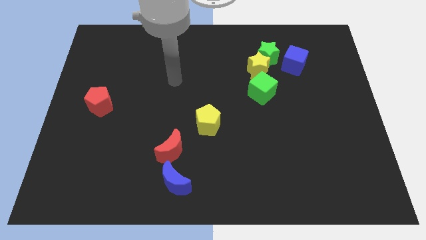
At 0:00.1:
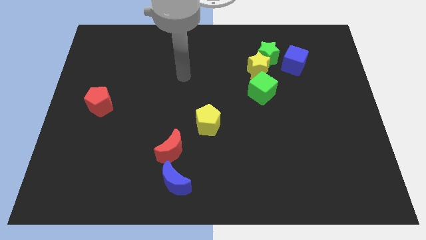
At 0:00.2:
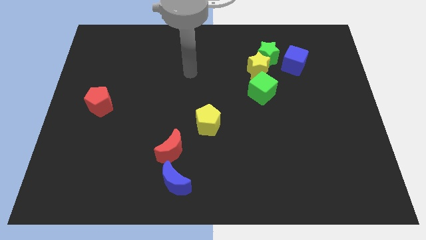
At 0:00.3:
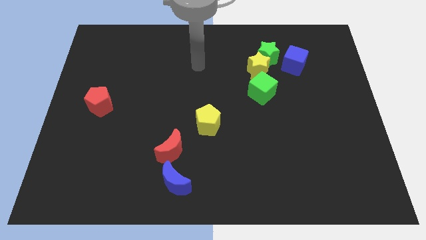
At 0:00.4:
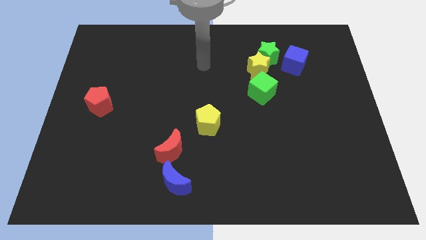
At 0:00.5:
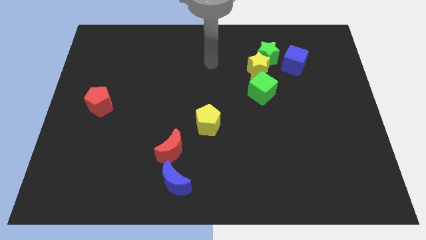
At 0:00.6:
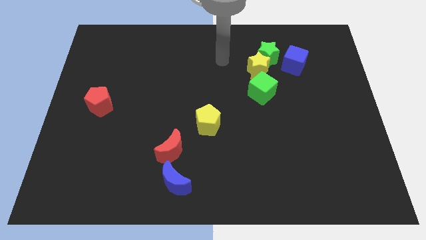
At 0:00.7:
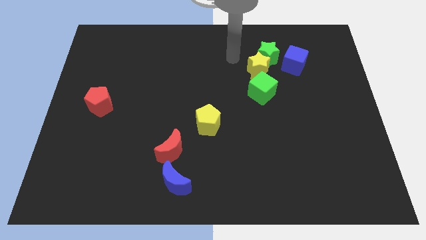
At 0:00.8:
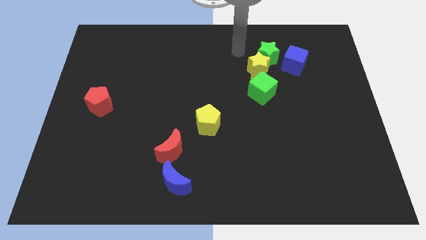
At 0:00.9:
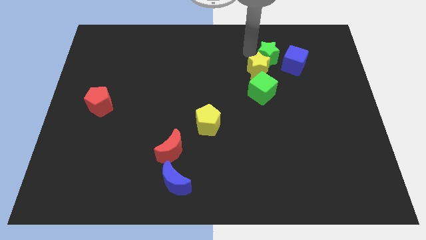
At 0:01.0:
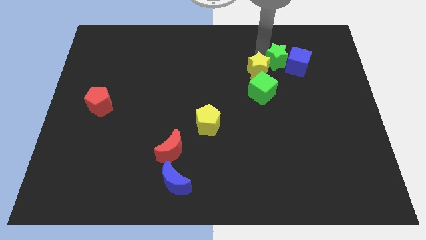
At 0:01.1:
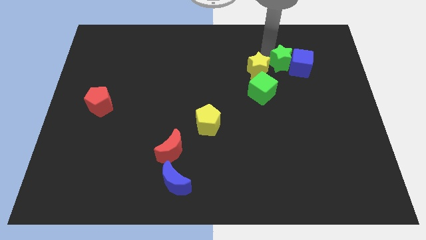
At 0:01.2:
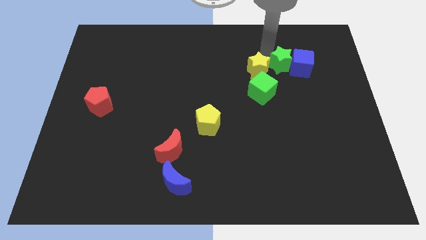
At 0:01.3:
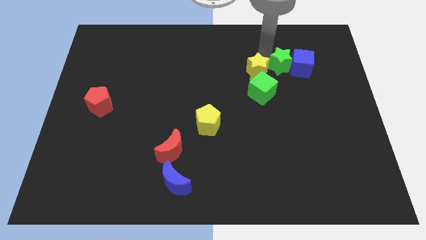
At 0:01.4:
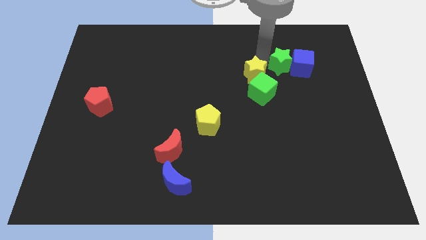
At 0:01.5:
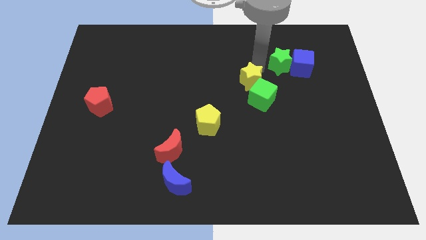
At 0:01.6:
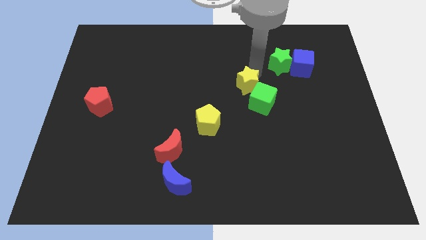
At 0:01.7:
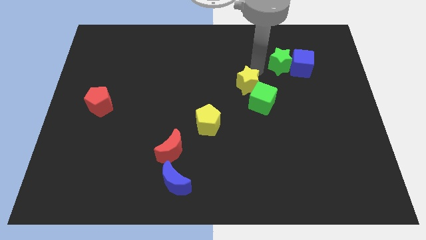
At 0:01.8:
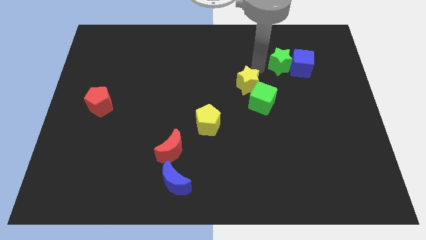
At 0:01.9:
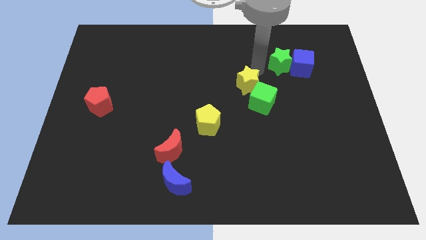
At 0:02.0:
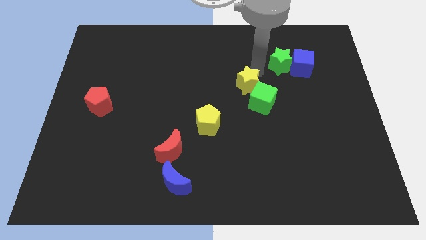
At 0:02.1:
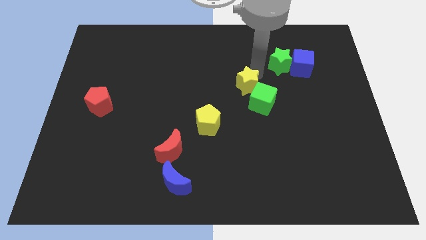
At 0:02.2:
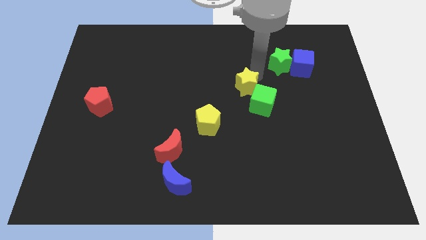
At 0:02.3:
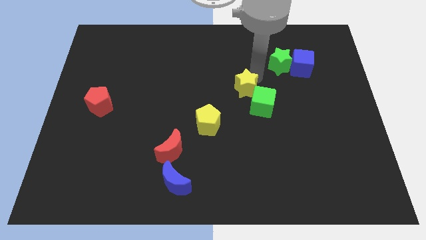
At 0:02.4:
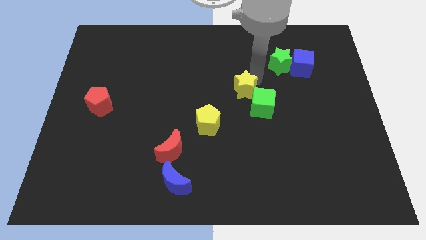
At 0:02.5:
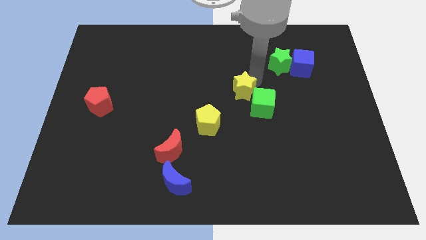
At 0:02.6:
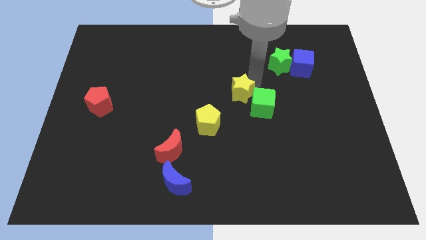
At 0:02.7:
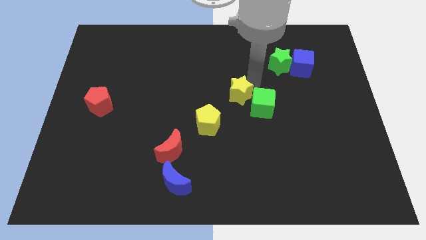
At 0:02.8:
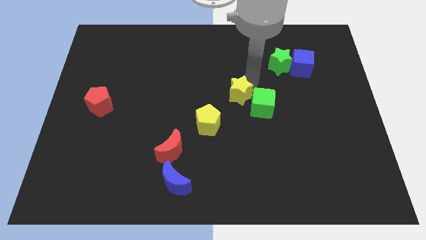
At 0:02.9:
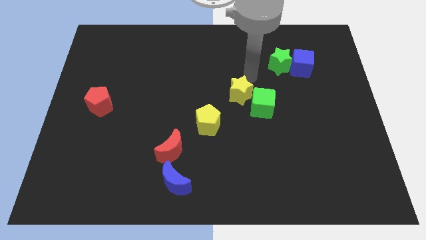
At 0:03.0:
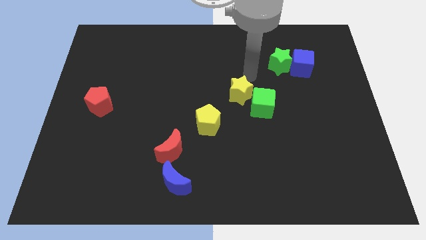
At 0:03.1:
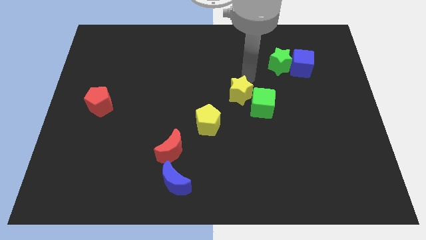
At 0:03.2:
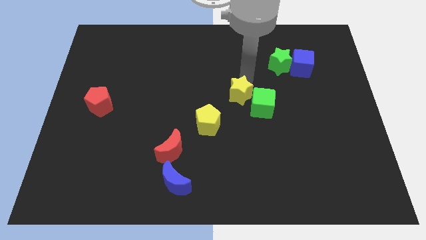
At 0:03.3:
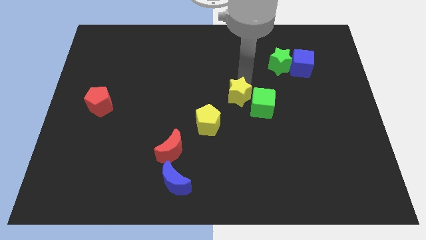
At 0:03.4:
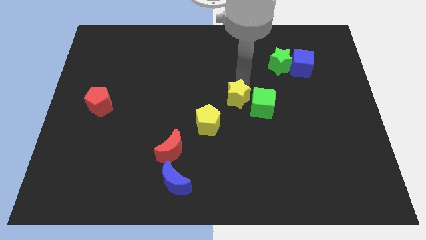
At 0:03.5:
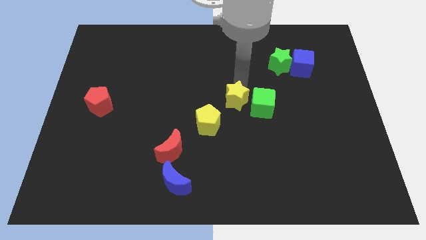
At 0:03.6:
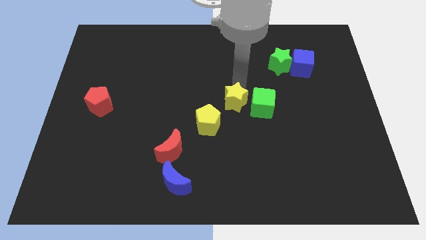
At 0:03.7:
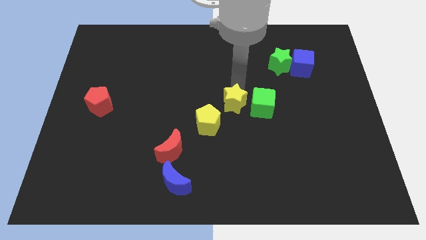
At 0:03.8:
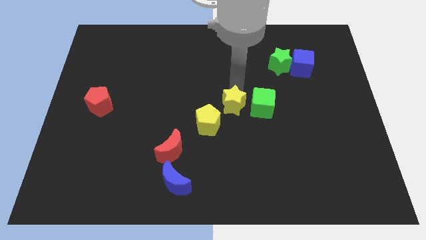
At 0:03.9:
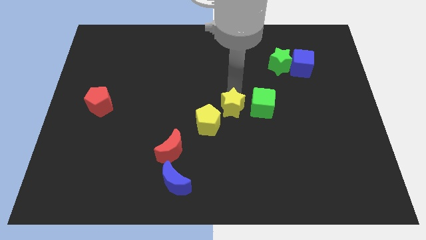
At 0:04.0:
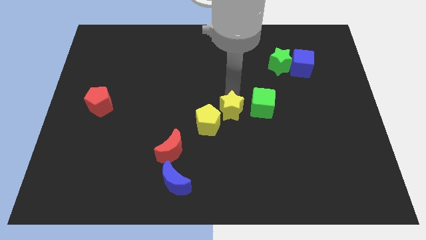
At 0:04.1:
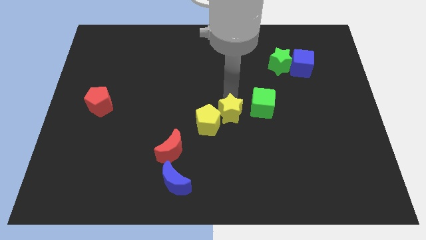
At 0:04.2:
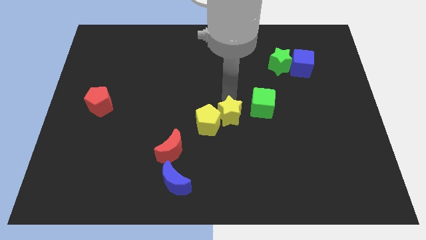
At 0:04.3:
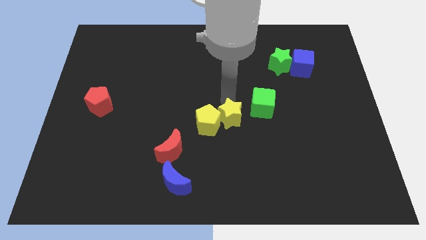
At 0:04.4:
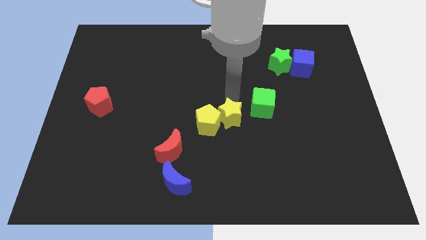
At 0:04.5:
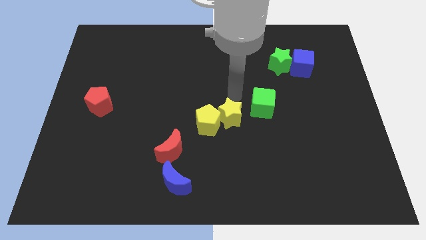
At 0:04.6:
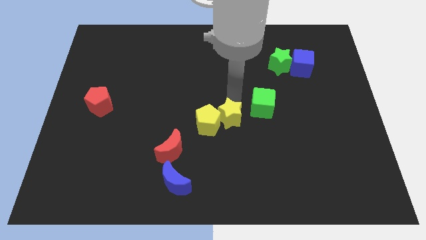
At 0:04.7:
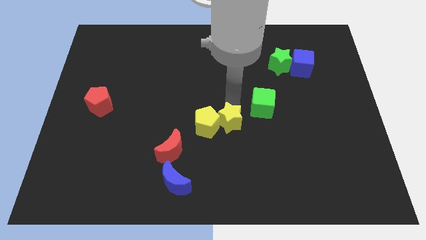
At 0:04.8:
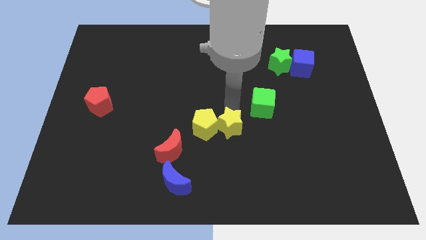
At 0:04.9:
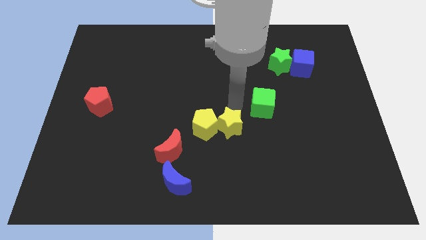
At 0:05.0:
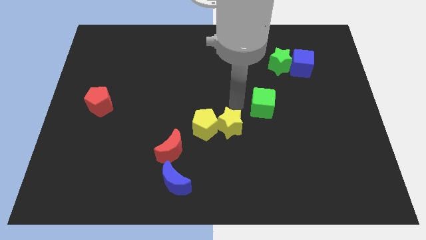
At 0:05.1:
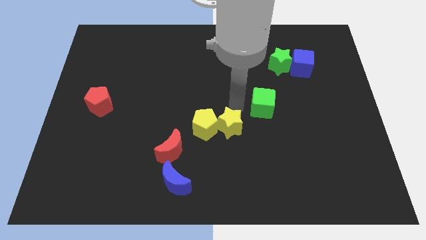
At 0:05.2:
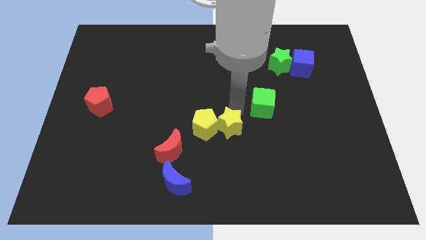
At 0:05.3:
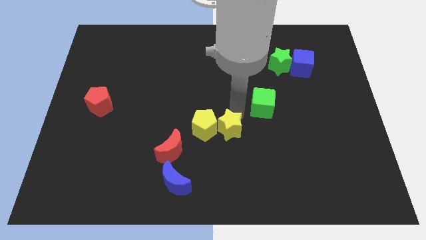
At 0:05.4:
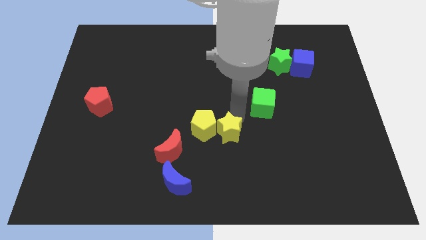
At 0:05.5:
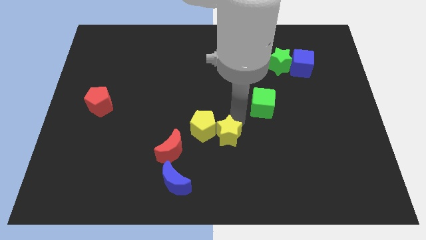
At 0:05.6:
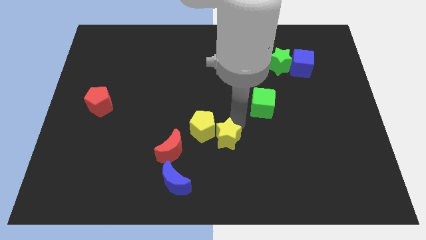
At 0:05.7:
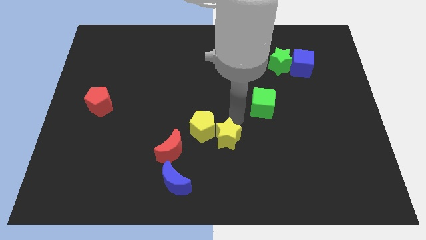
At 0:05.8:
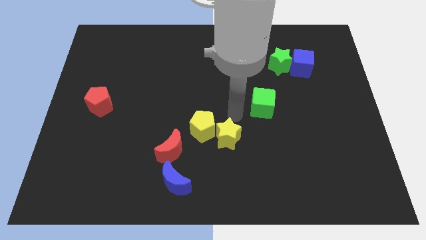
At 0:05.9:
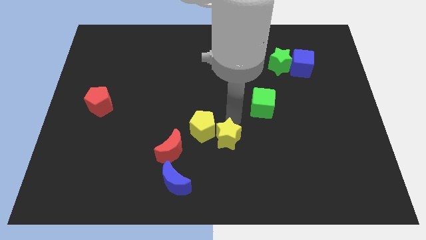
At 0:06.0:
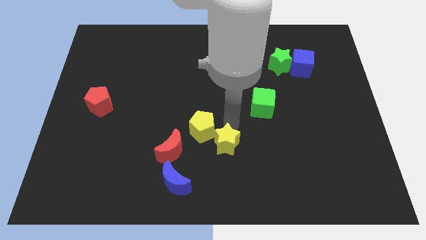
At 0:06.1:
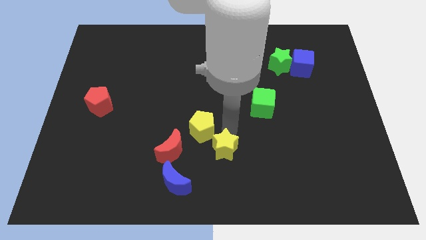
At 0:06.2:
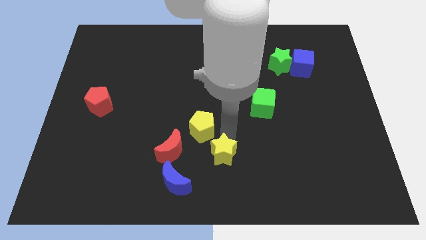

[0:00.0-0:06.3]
push the yellow star to the bottom

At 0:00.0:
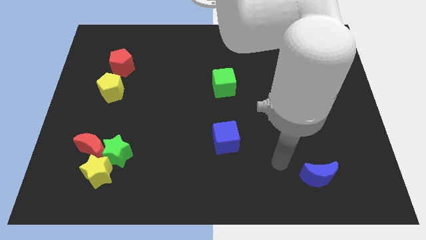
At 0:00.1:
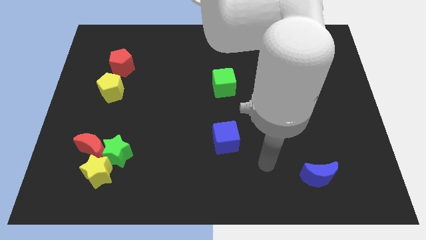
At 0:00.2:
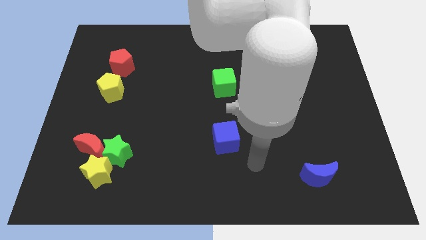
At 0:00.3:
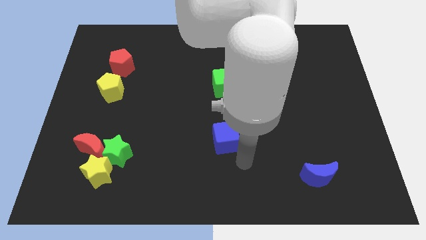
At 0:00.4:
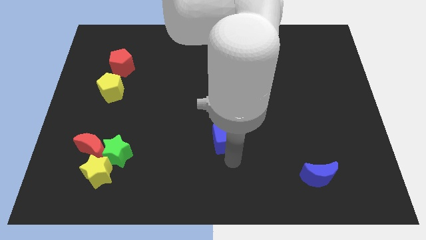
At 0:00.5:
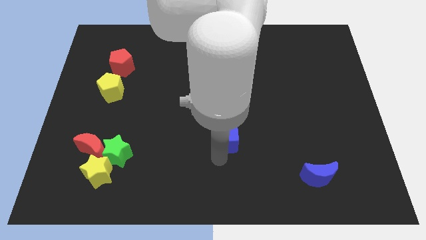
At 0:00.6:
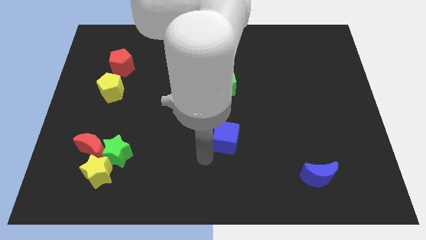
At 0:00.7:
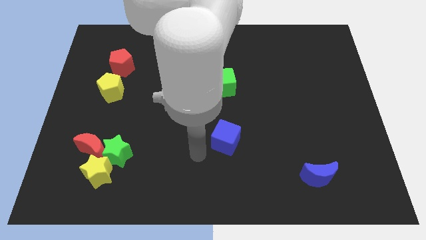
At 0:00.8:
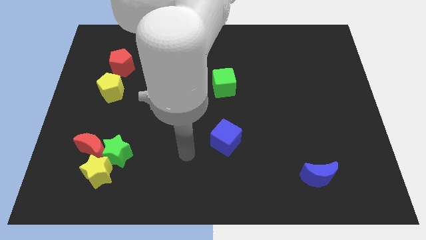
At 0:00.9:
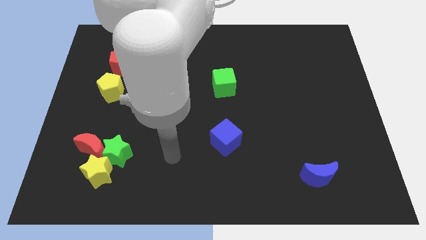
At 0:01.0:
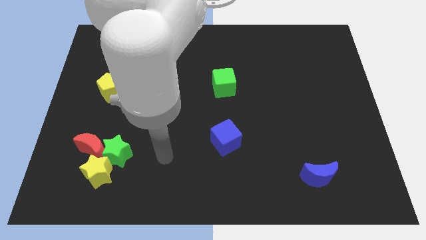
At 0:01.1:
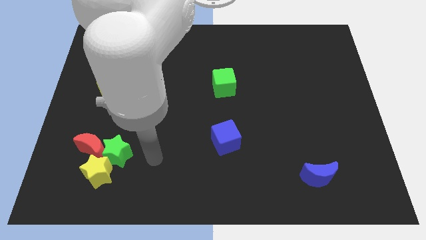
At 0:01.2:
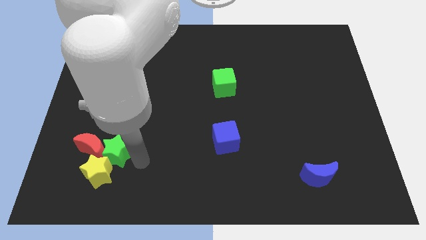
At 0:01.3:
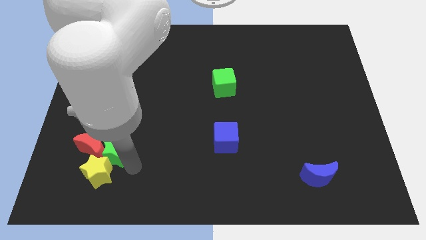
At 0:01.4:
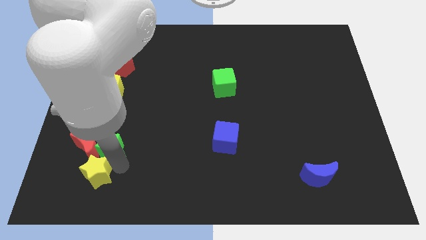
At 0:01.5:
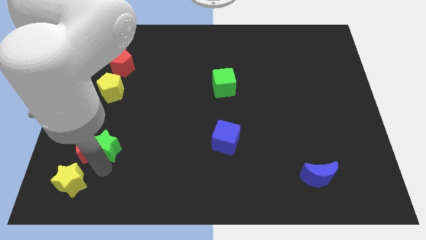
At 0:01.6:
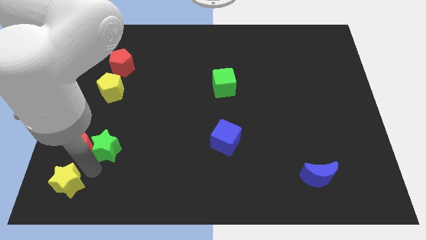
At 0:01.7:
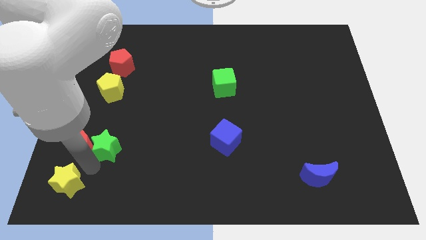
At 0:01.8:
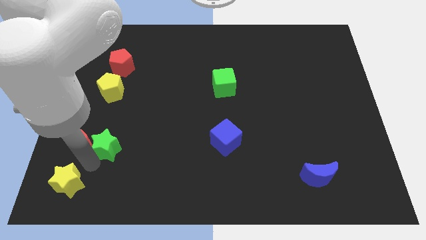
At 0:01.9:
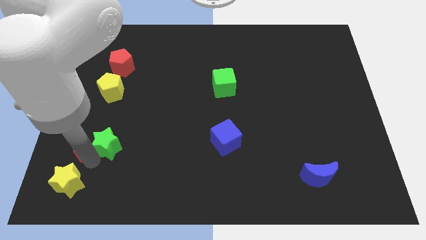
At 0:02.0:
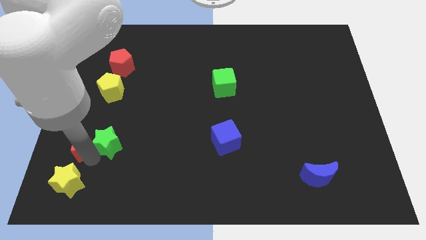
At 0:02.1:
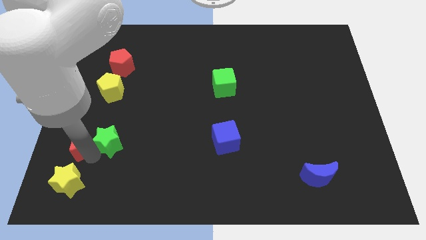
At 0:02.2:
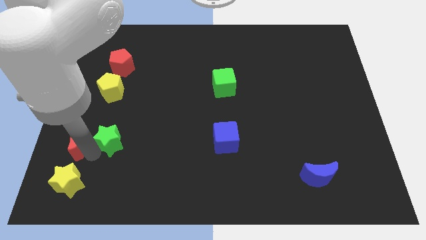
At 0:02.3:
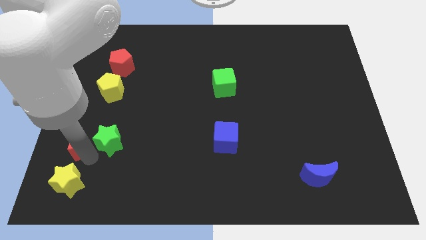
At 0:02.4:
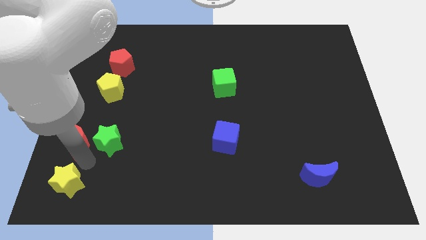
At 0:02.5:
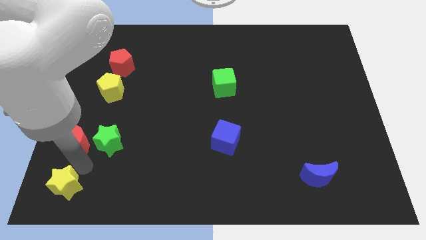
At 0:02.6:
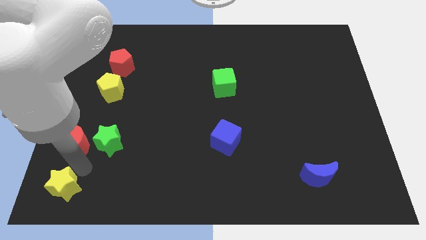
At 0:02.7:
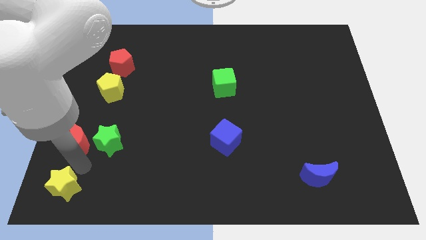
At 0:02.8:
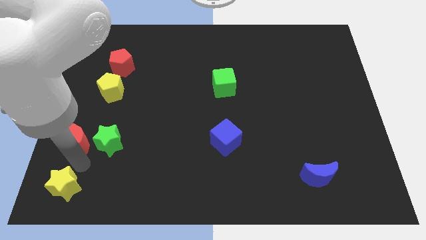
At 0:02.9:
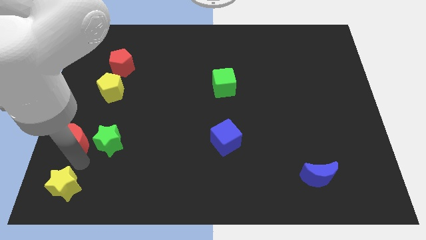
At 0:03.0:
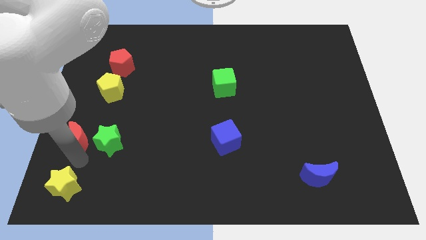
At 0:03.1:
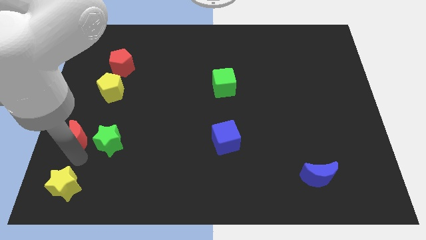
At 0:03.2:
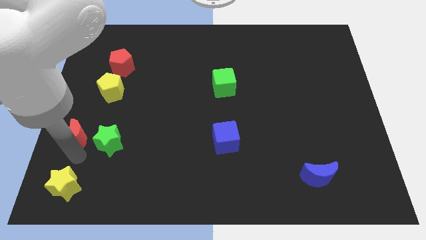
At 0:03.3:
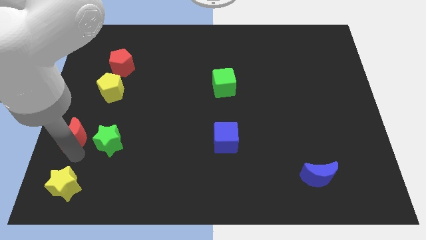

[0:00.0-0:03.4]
slide the red moon to the center left
